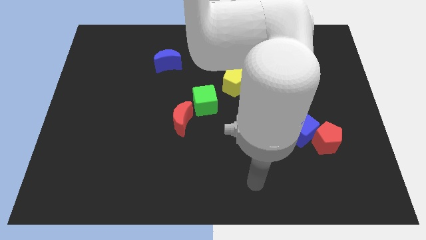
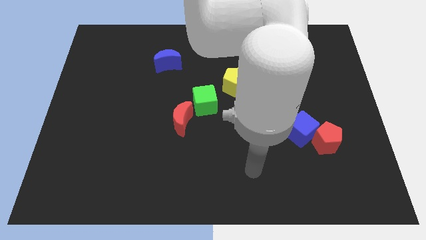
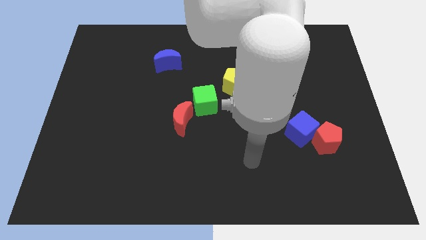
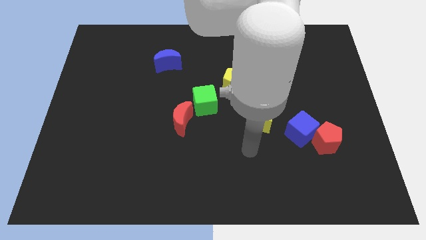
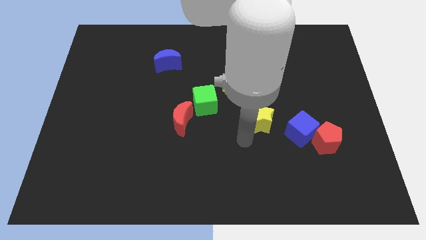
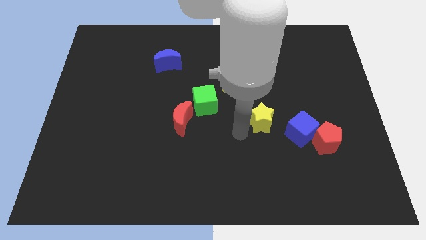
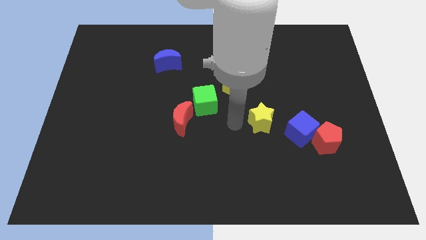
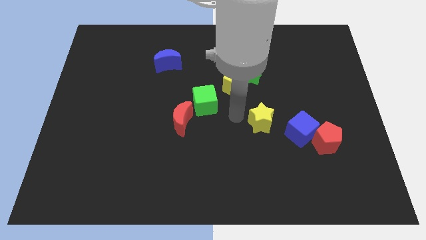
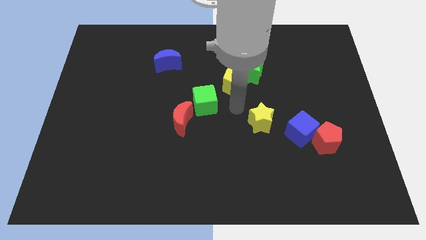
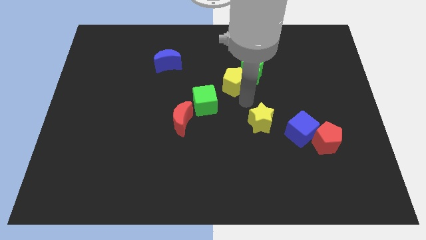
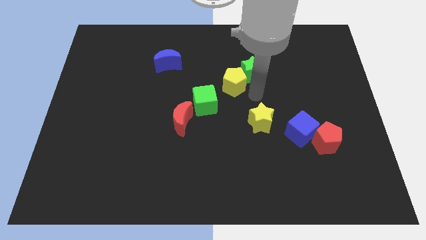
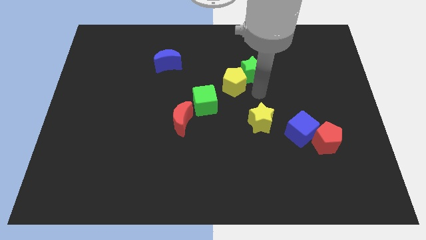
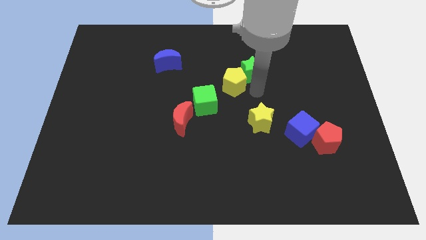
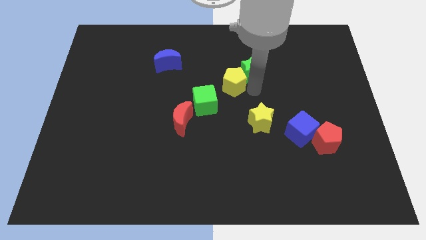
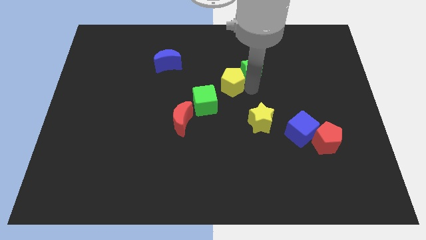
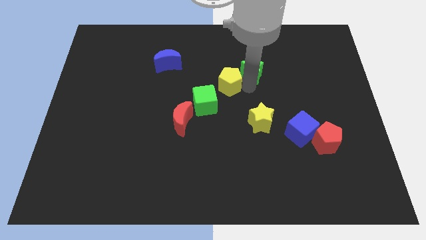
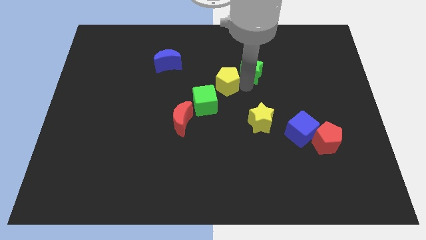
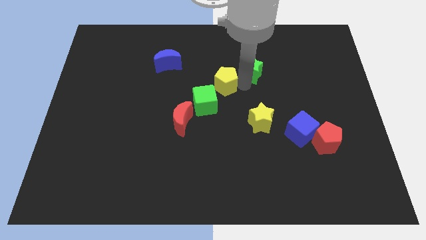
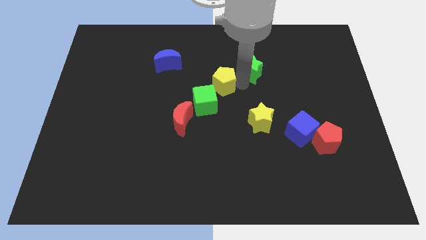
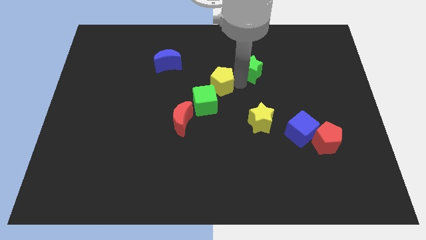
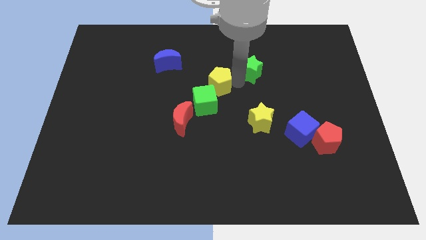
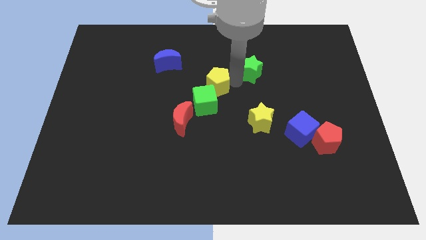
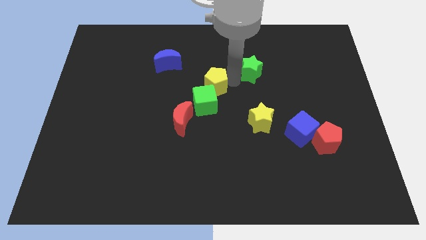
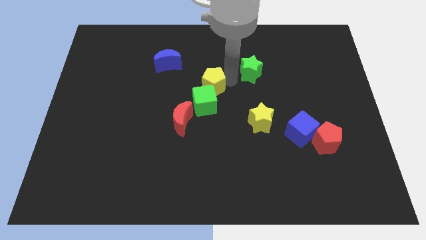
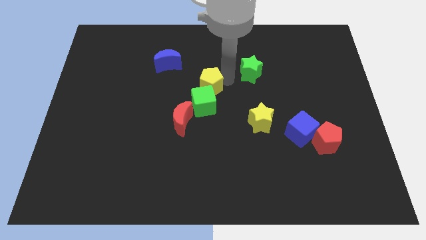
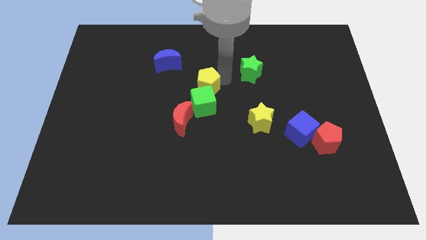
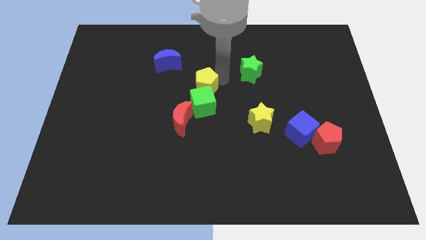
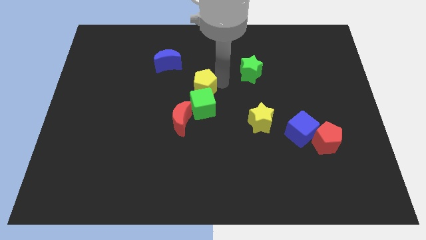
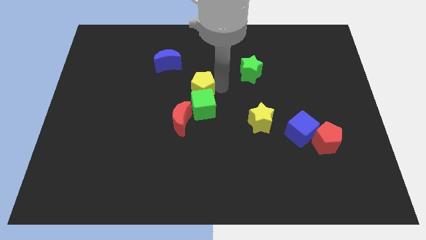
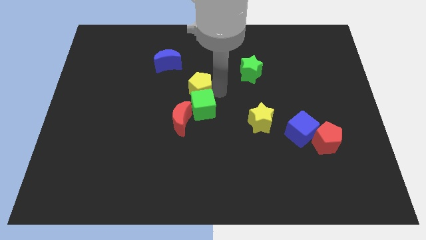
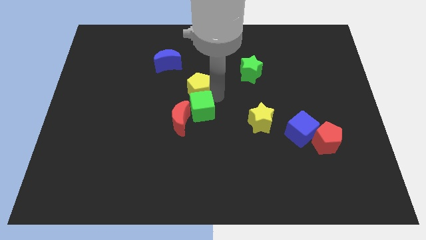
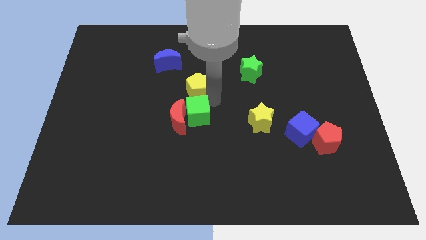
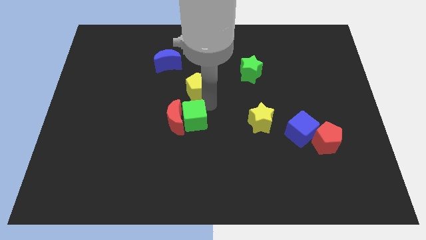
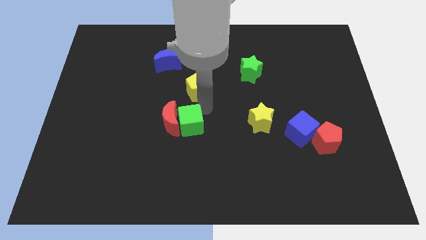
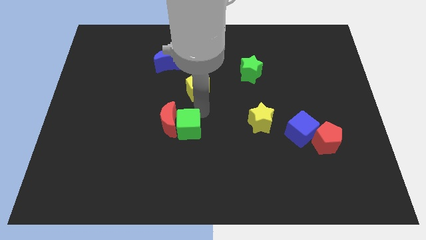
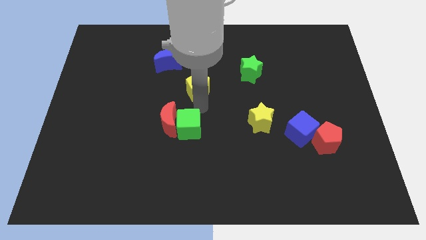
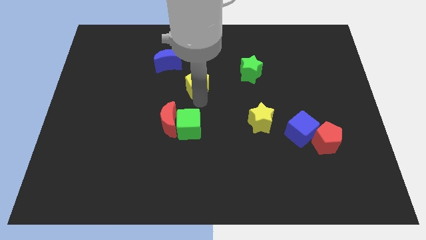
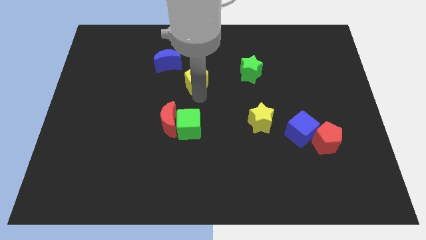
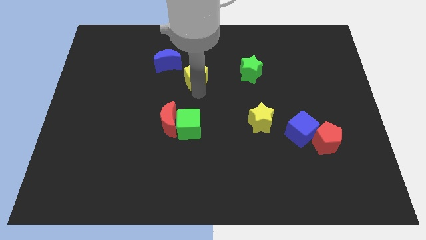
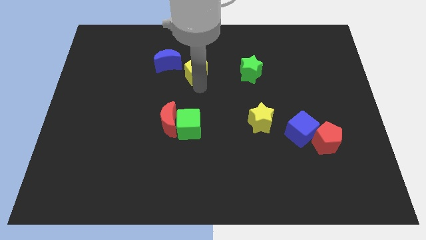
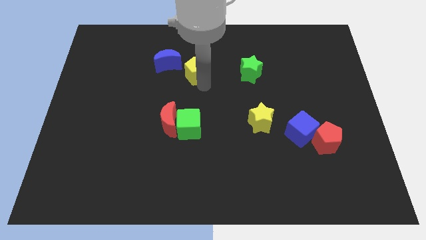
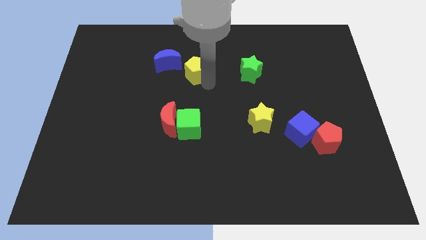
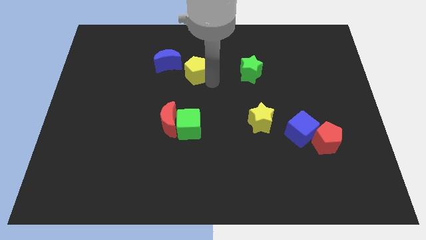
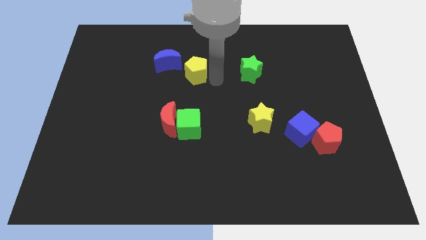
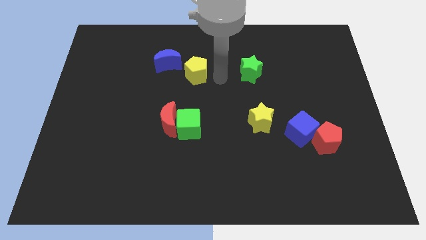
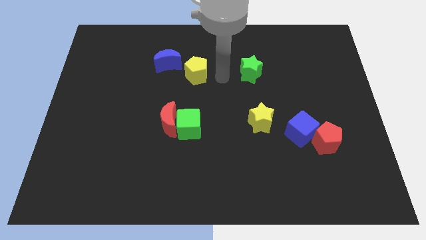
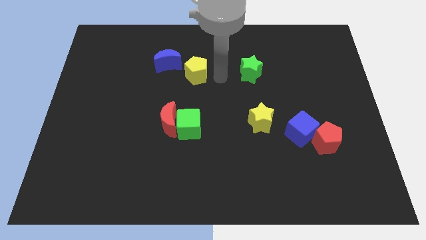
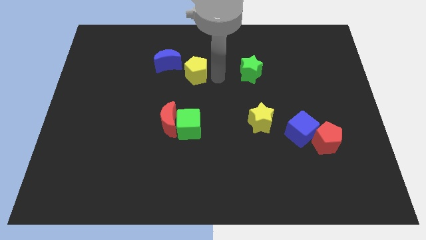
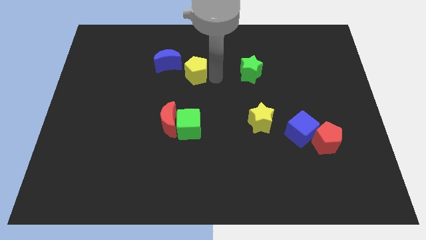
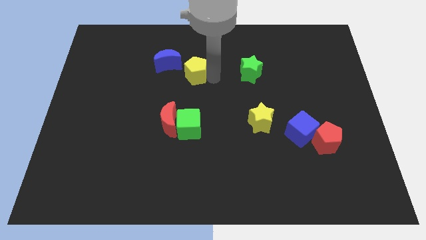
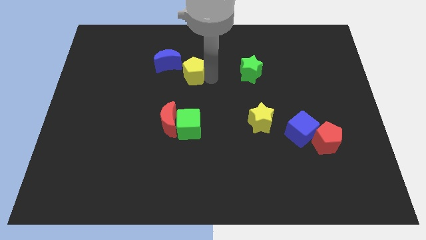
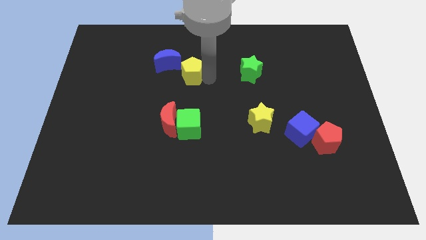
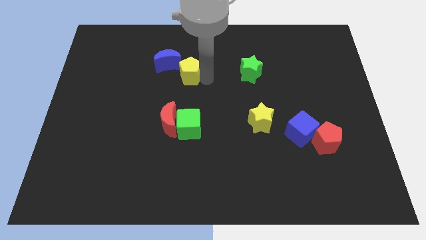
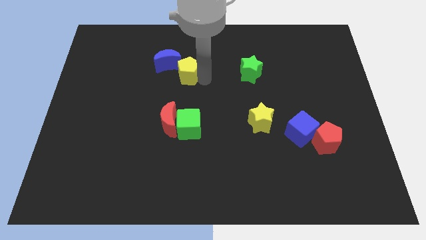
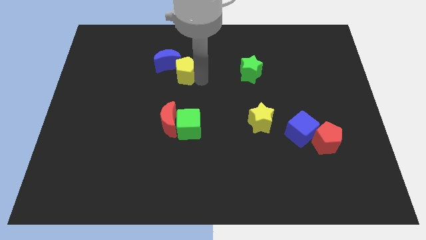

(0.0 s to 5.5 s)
put the yellow pentagon next to the blue moon

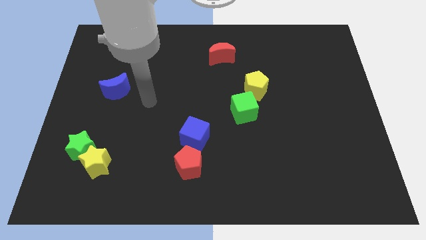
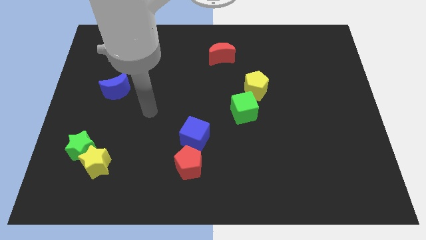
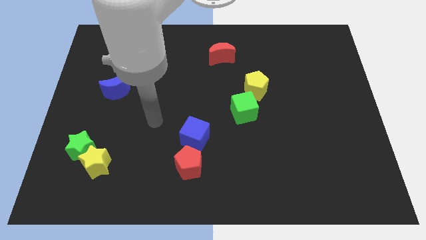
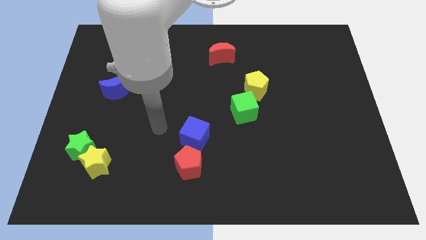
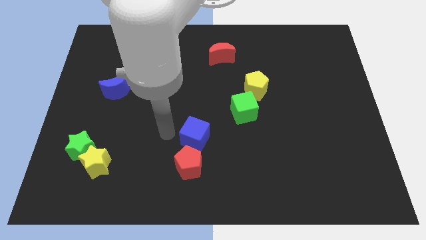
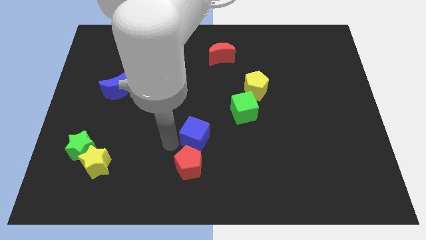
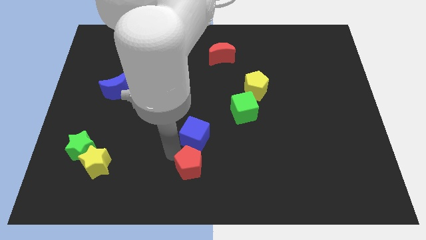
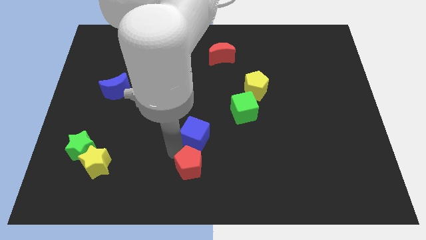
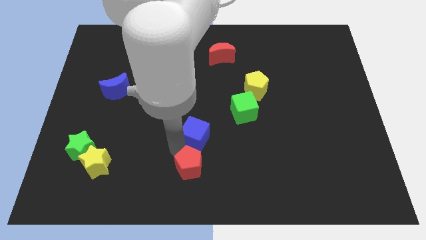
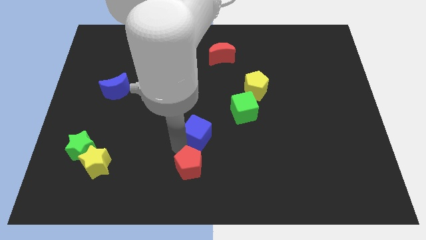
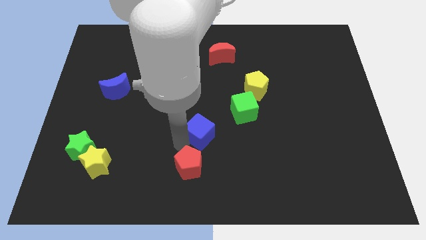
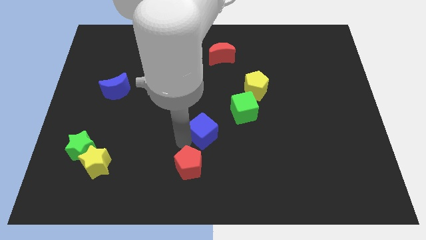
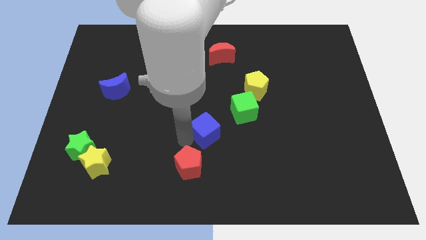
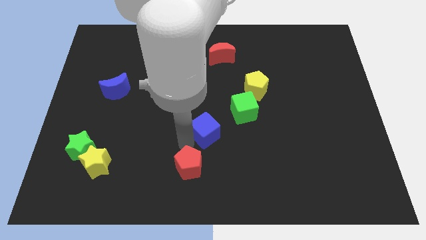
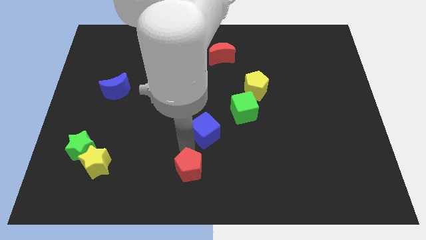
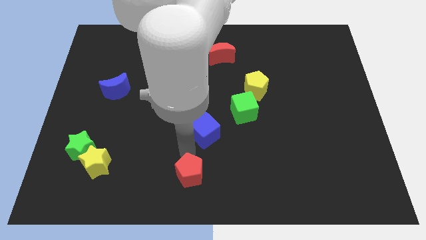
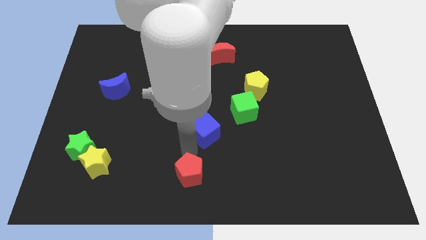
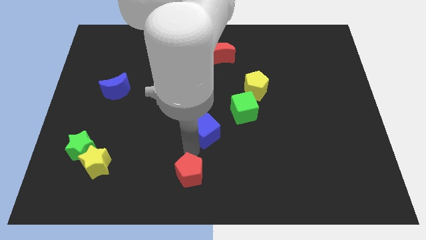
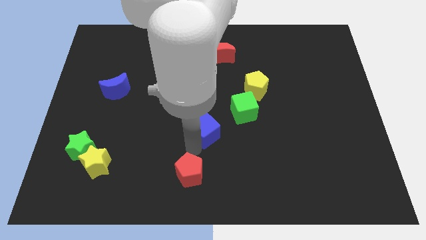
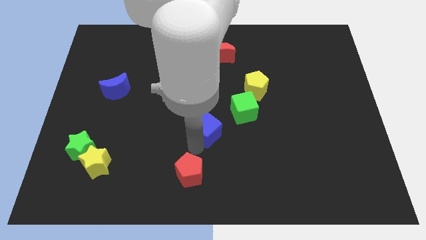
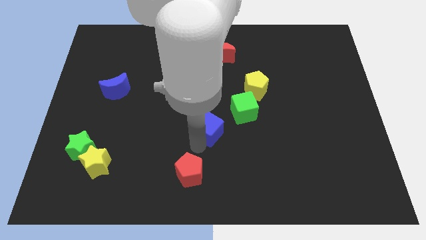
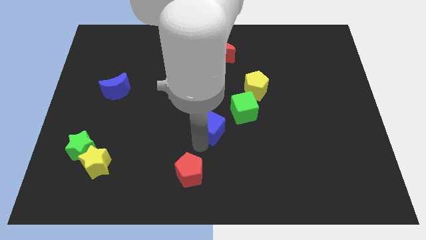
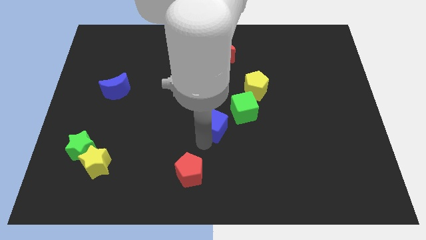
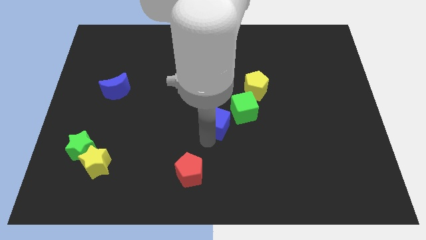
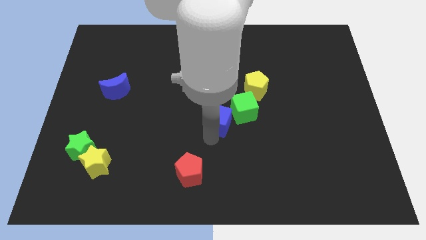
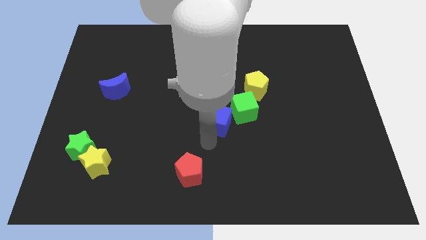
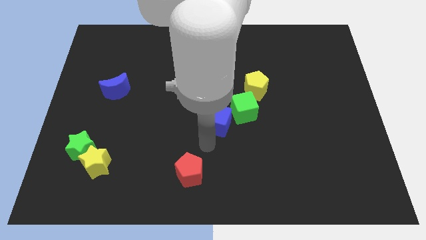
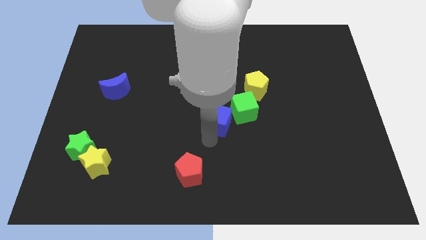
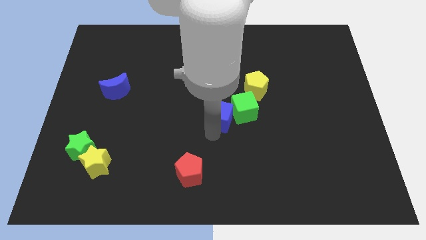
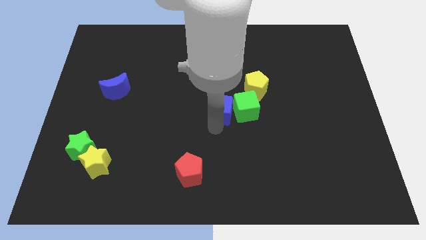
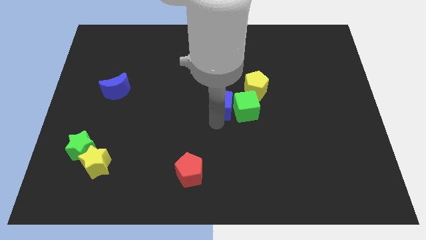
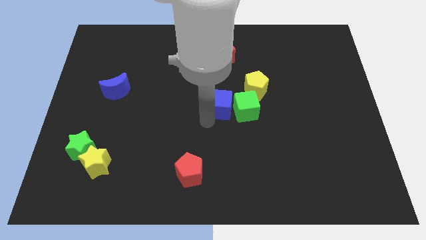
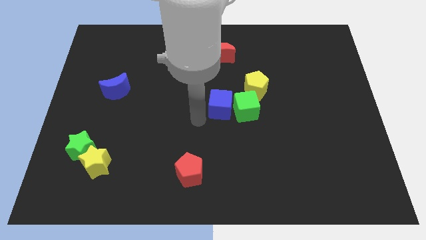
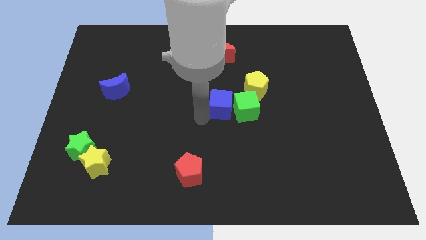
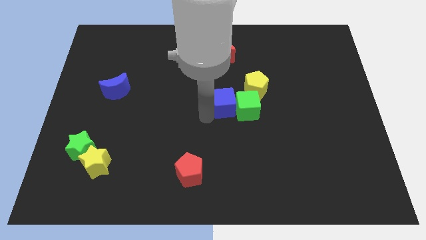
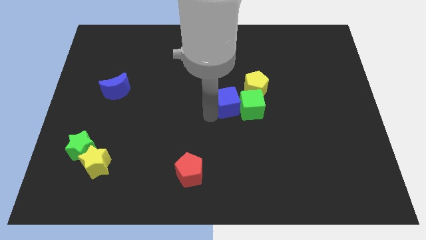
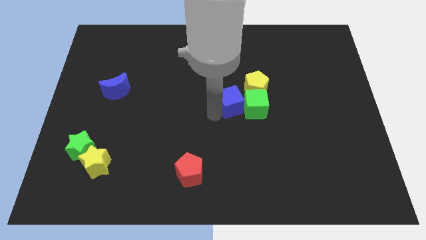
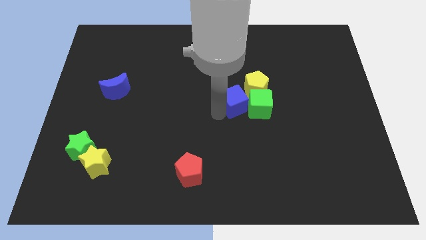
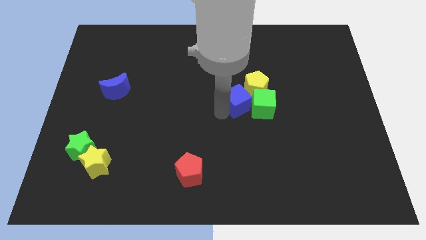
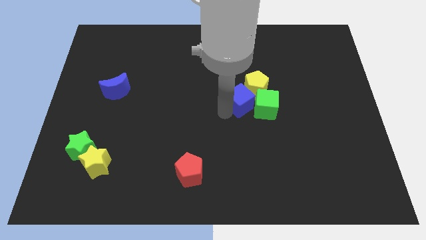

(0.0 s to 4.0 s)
put the blue cube to the yellow pentagon
